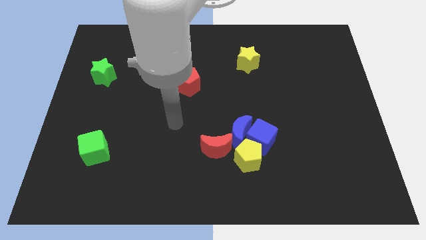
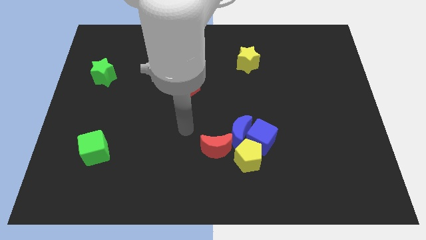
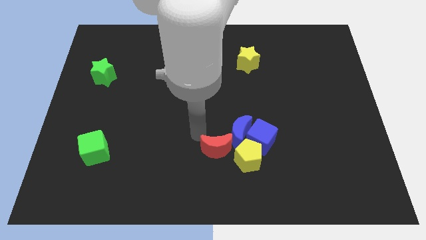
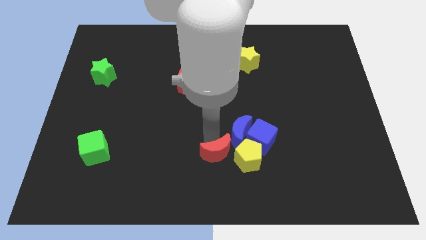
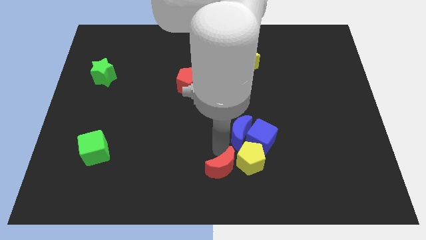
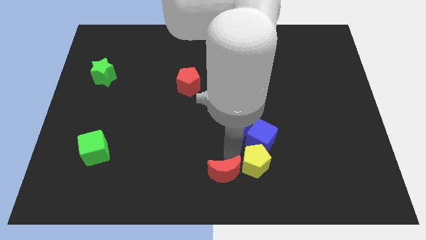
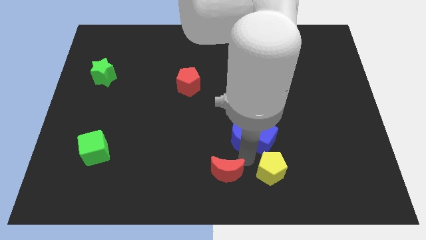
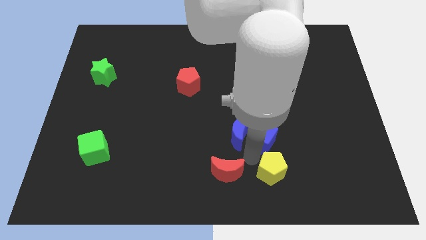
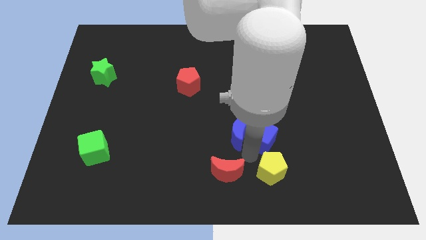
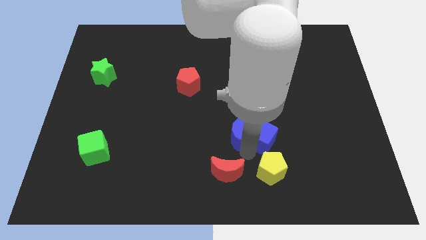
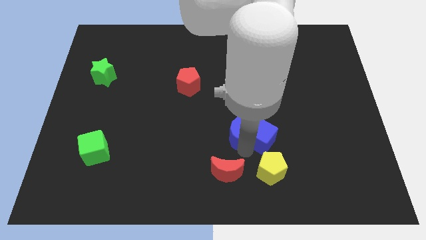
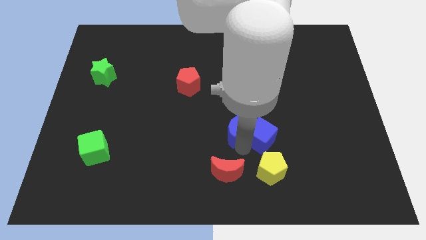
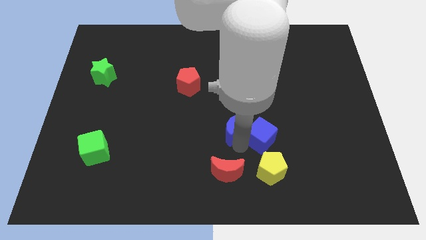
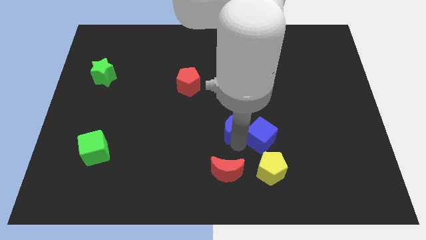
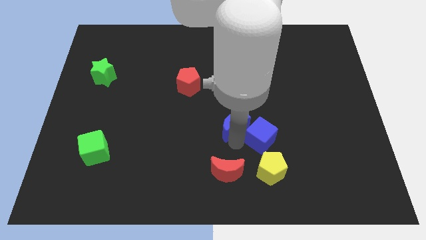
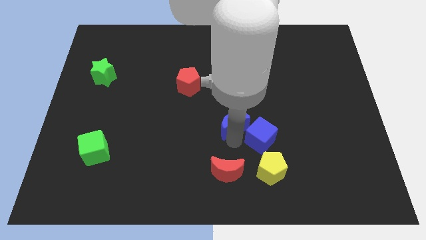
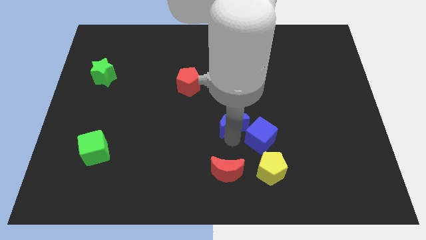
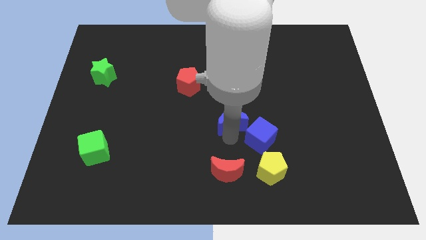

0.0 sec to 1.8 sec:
move the blue moon away from the blue cube, yellow pentagon, and red moon

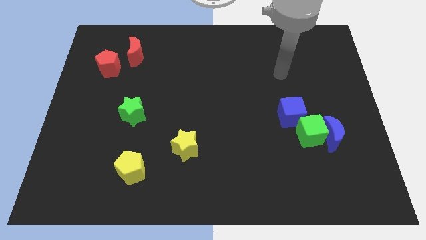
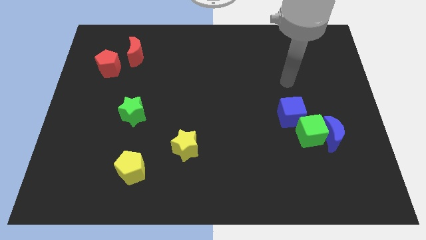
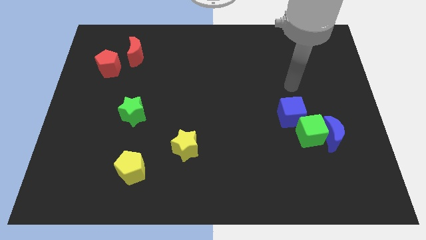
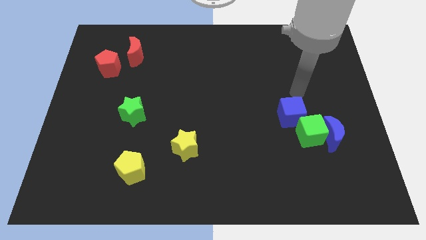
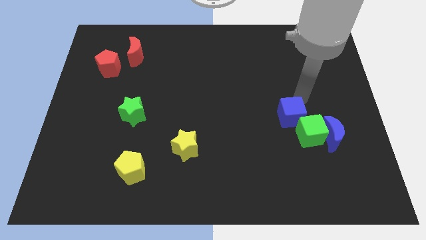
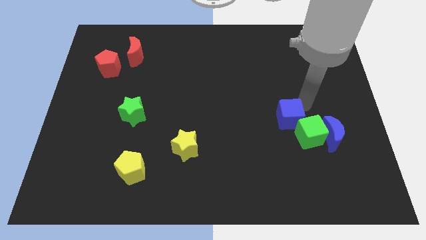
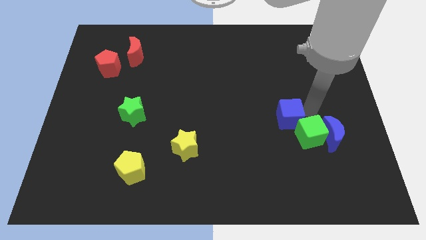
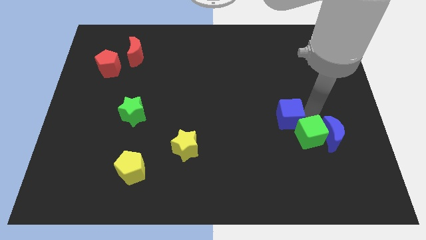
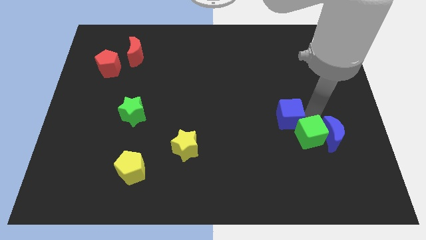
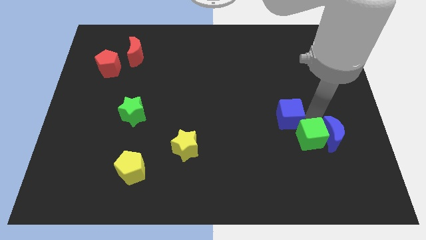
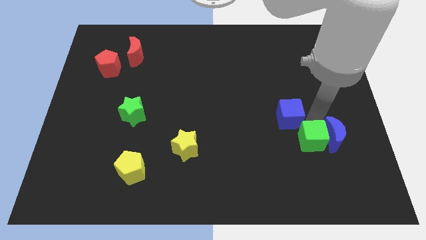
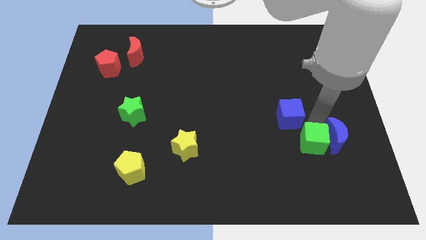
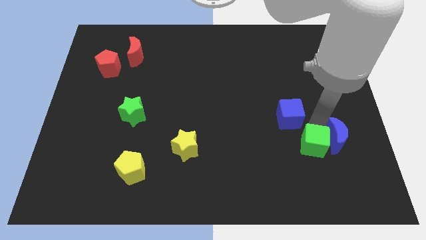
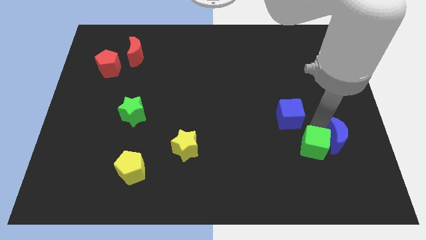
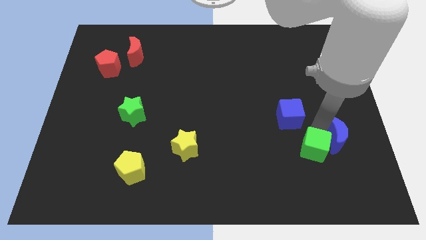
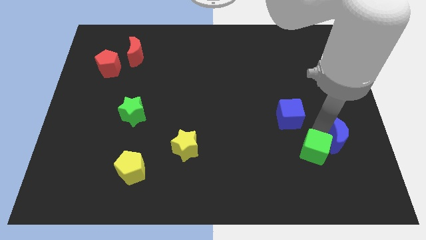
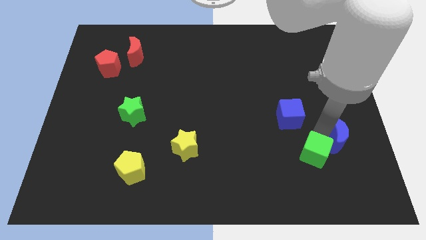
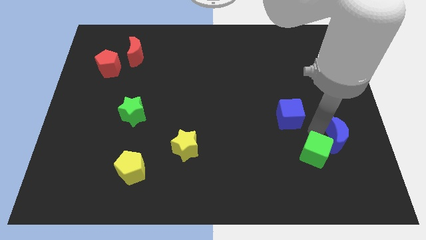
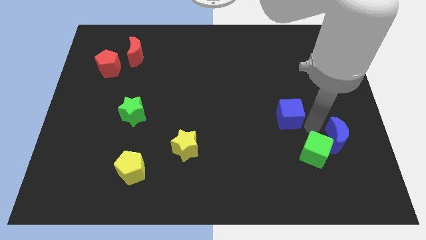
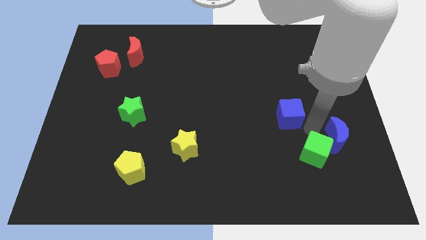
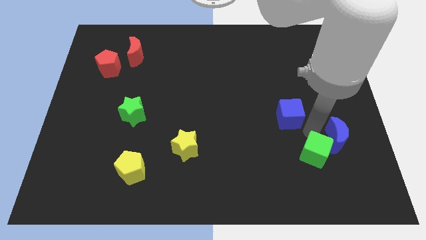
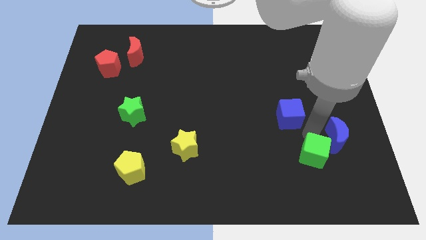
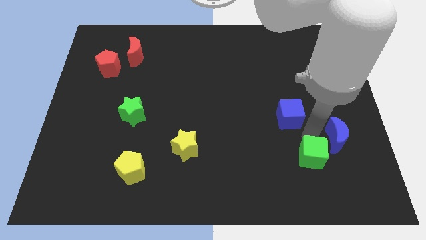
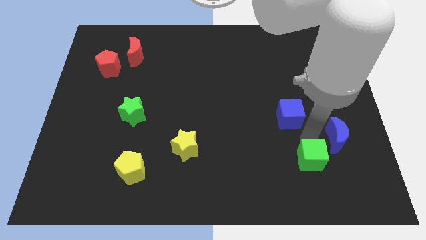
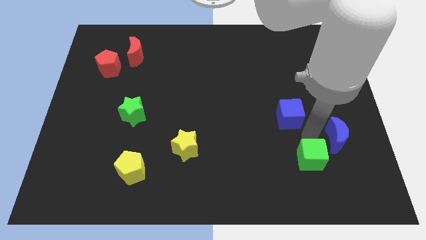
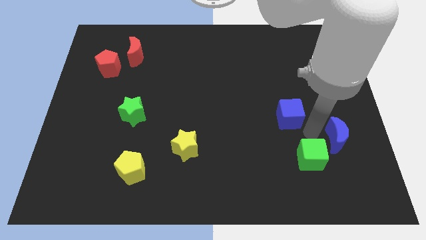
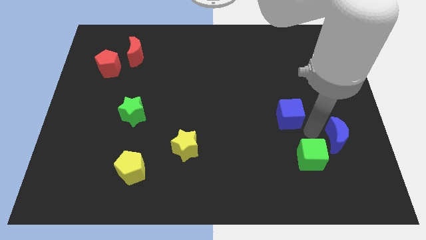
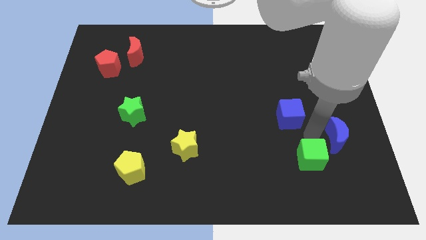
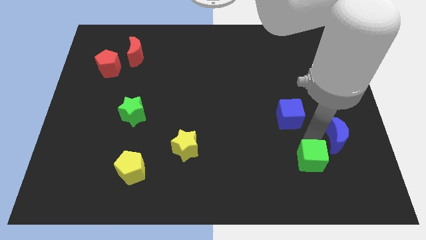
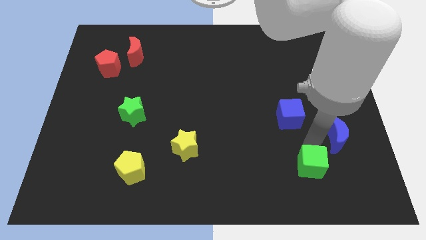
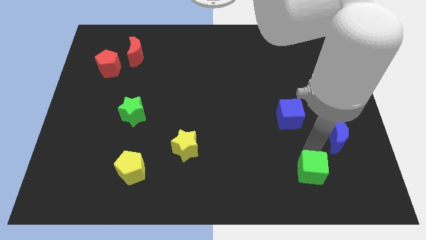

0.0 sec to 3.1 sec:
move the green cube away from the blue moon and blue cube

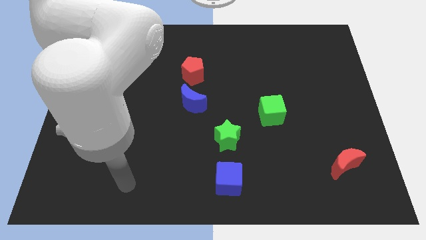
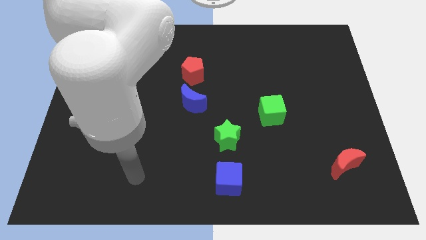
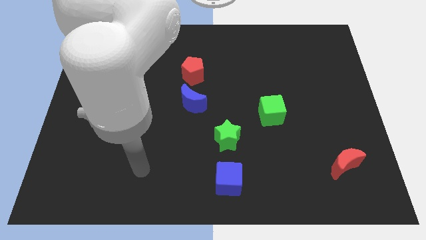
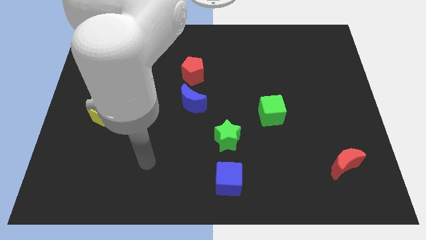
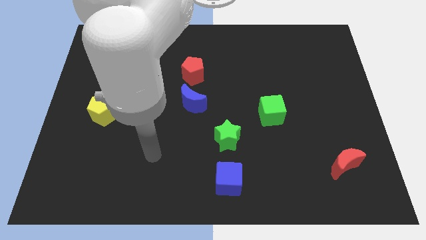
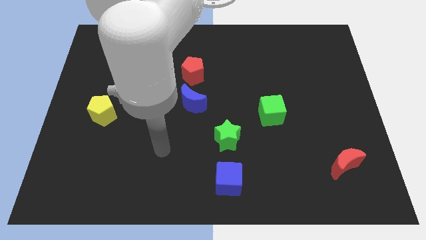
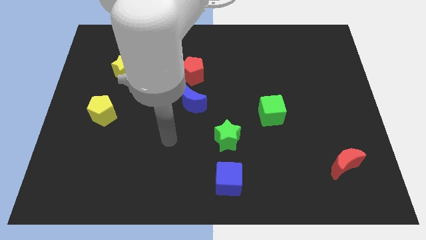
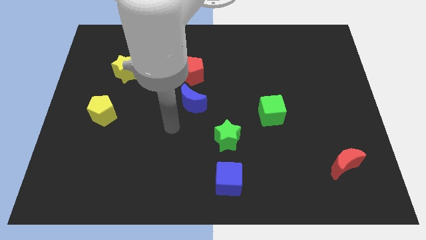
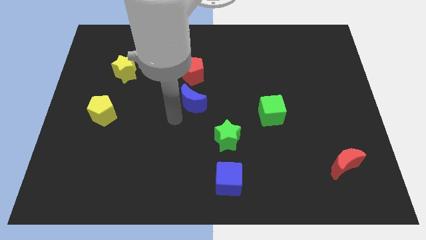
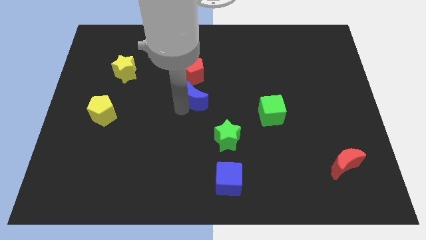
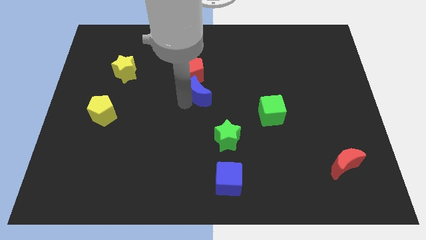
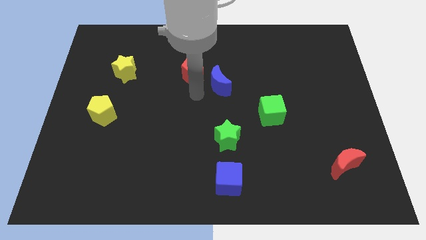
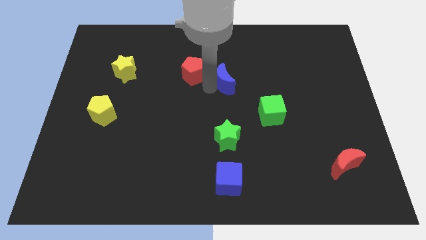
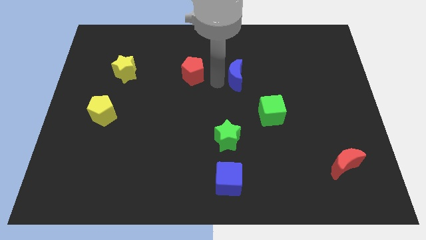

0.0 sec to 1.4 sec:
move the red pentagon away from the blue moon

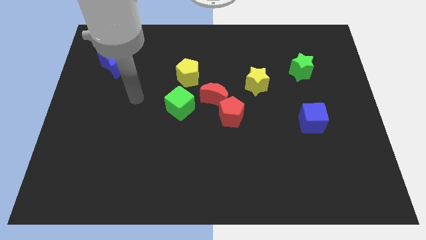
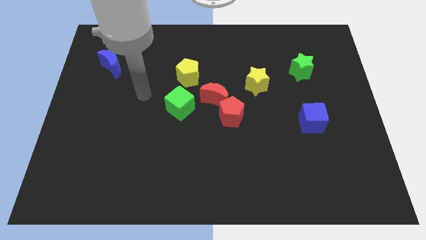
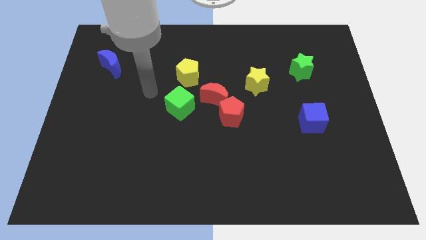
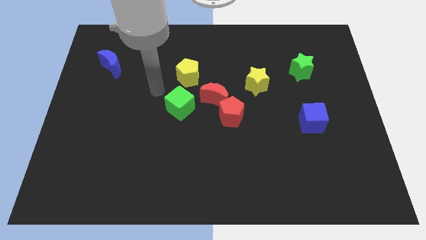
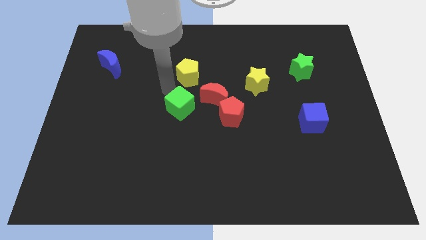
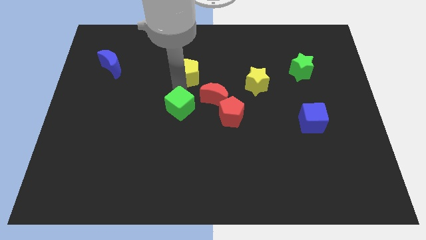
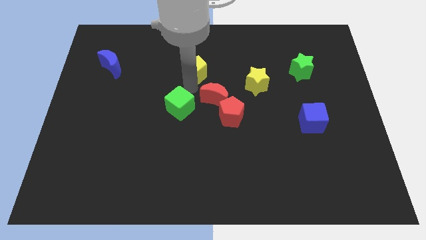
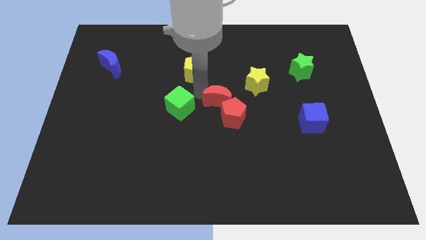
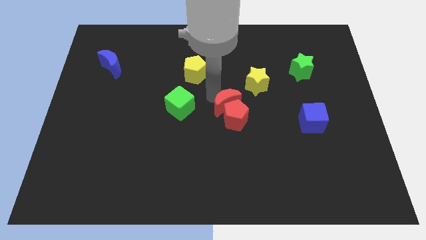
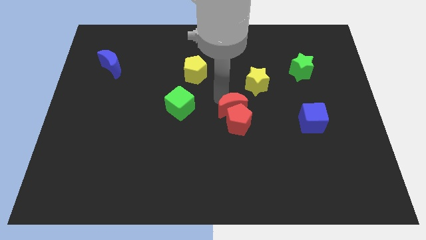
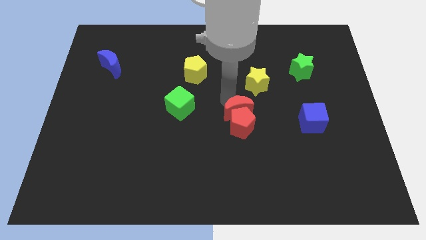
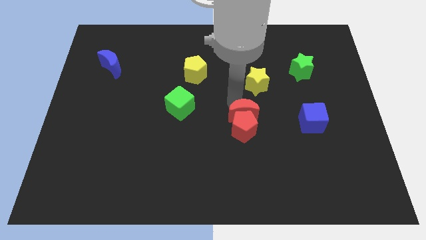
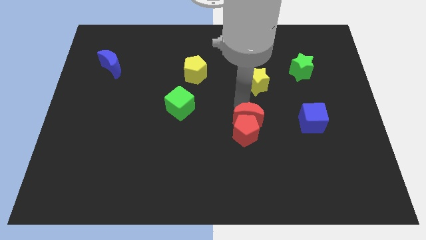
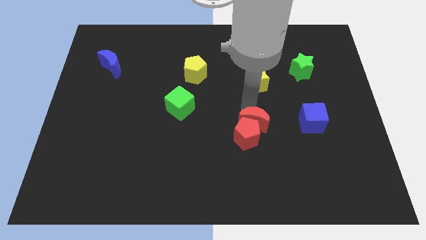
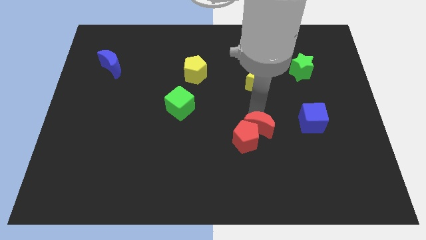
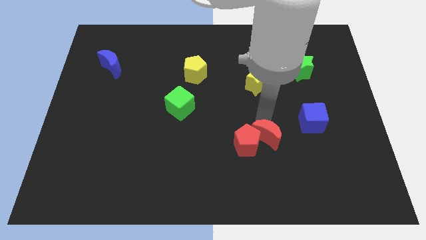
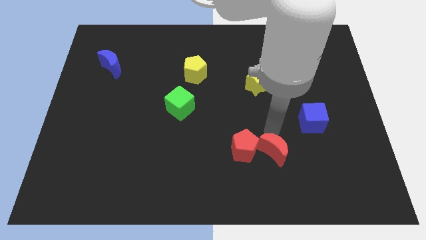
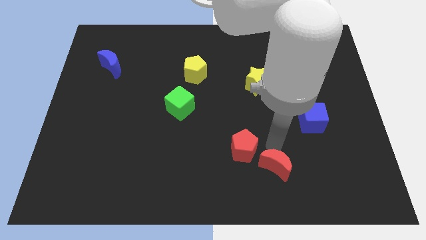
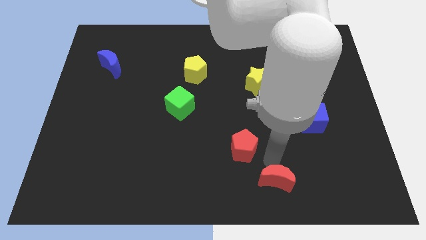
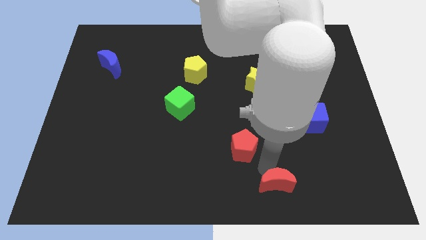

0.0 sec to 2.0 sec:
move the red pentagon away from the red moon

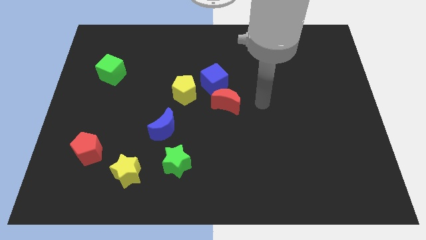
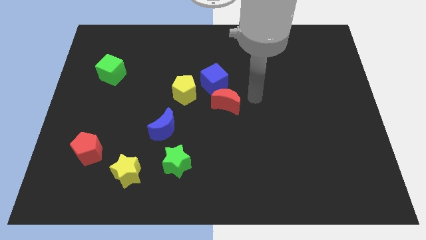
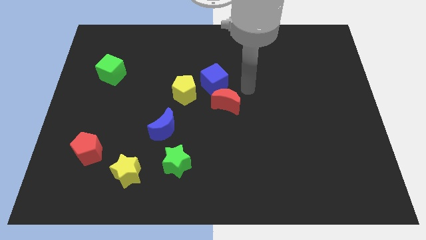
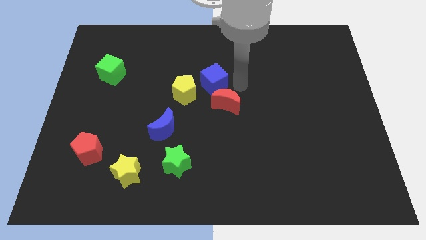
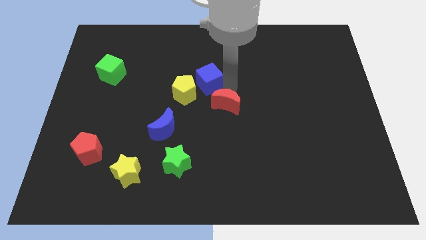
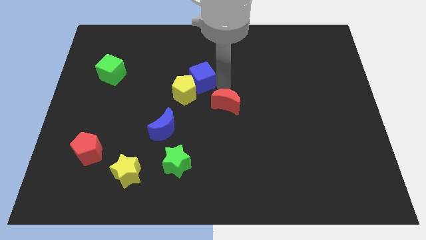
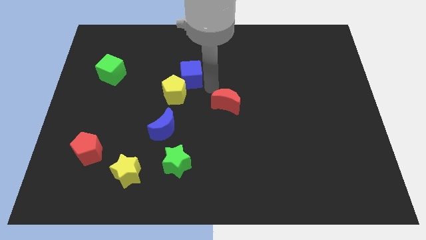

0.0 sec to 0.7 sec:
pull the red moon apart from the blue cube

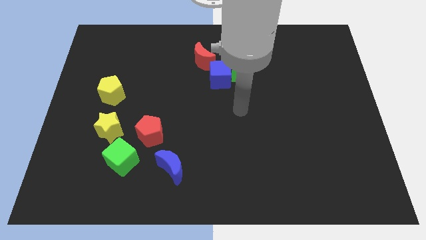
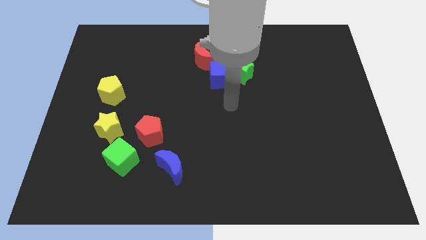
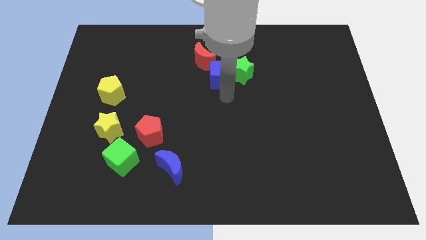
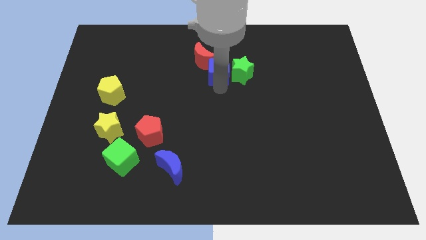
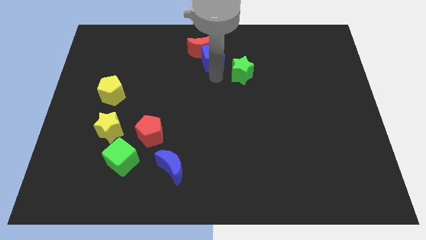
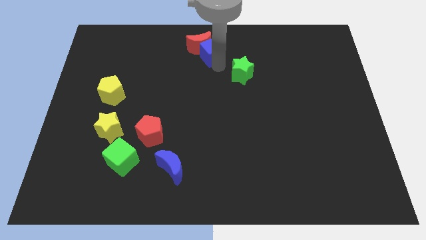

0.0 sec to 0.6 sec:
pull the green star apart from the blue cube
